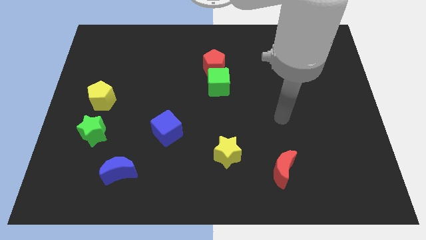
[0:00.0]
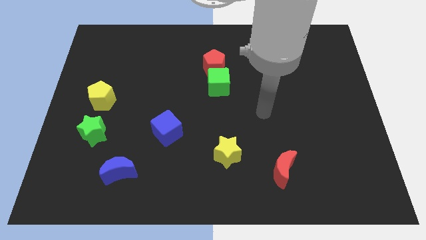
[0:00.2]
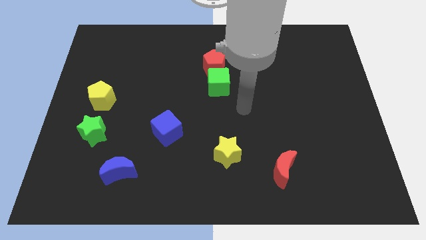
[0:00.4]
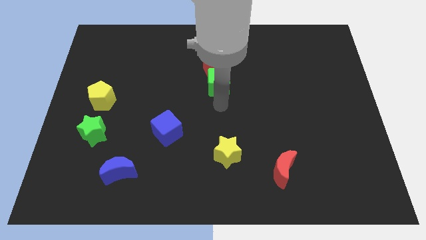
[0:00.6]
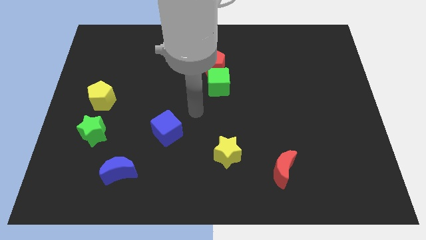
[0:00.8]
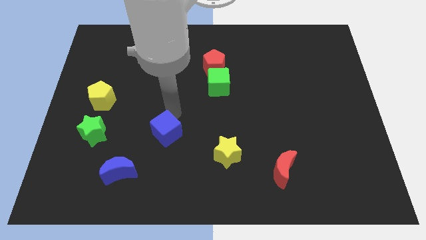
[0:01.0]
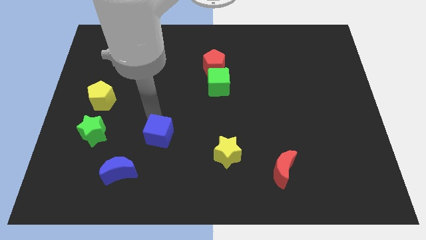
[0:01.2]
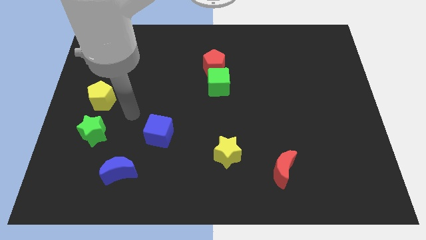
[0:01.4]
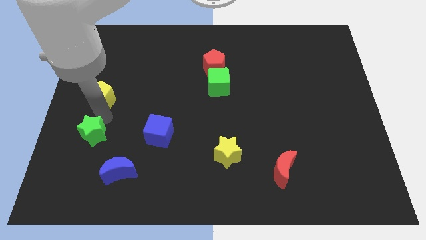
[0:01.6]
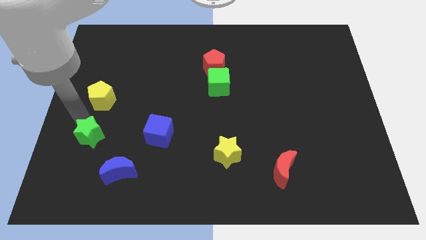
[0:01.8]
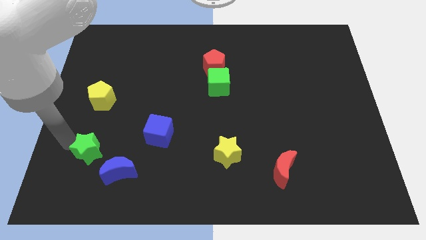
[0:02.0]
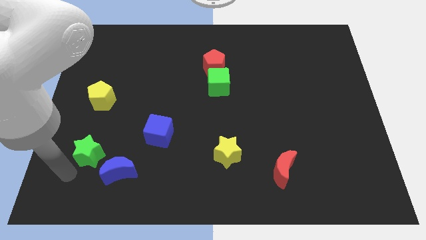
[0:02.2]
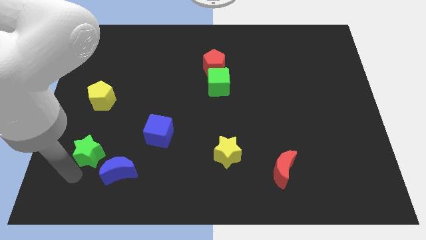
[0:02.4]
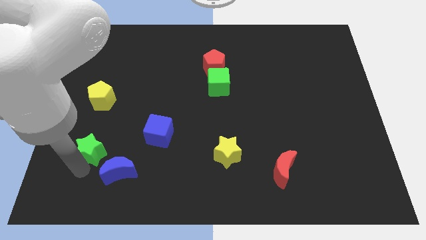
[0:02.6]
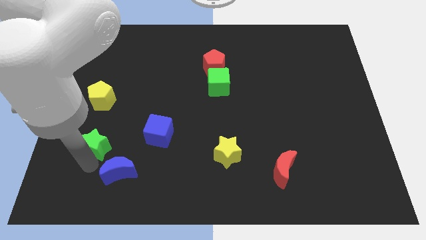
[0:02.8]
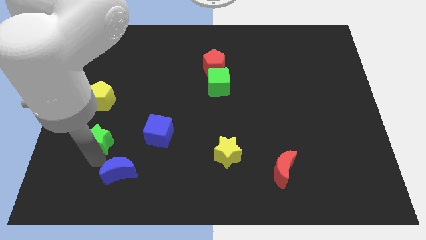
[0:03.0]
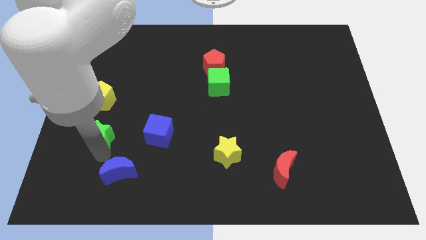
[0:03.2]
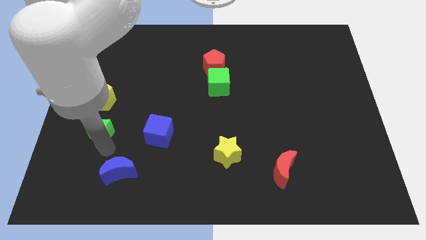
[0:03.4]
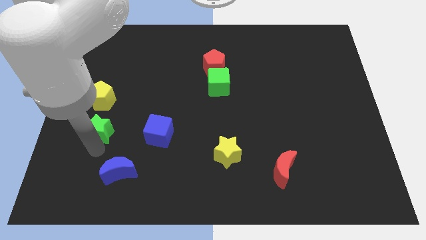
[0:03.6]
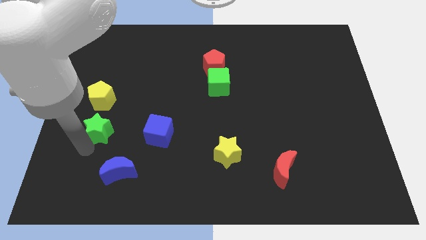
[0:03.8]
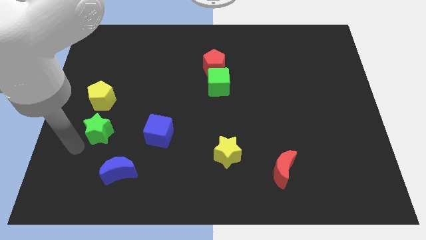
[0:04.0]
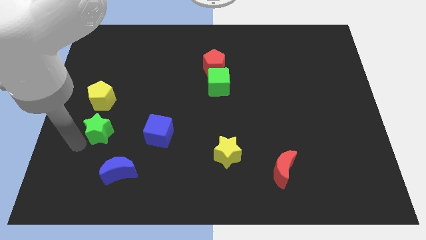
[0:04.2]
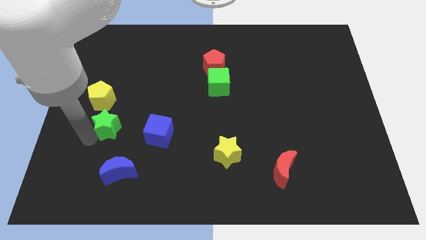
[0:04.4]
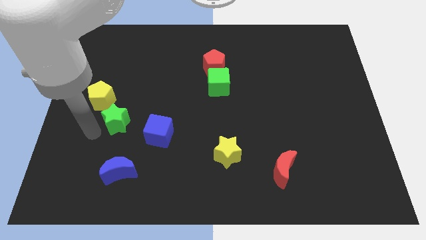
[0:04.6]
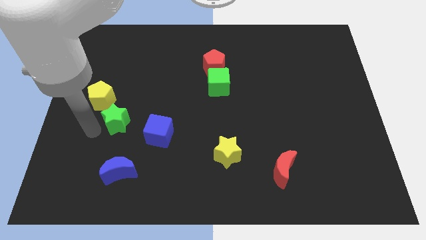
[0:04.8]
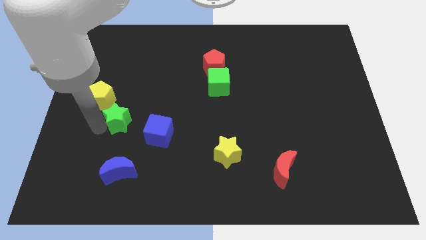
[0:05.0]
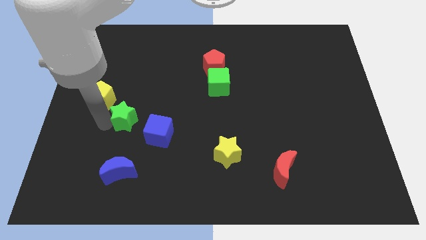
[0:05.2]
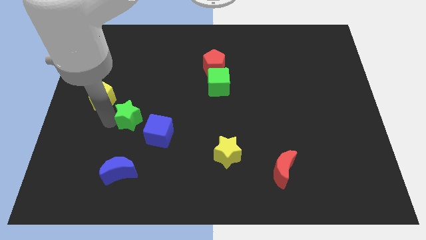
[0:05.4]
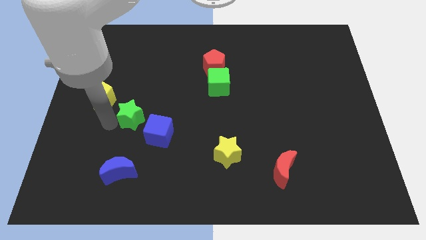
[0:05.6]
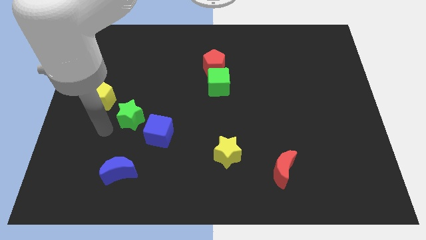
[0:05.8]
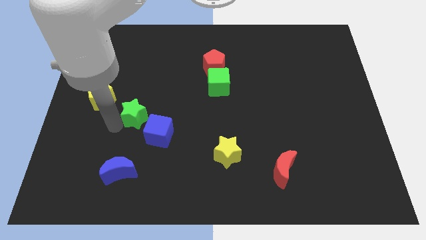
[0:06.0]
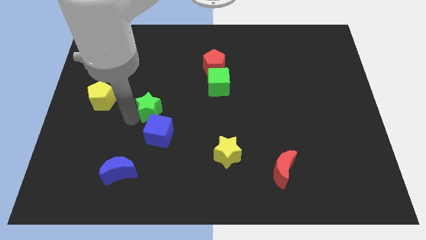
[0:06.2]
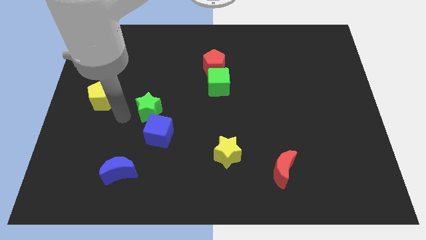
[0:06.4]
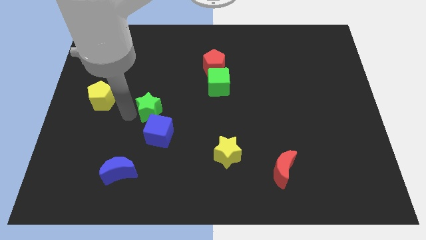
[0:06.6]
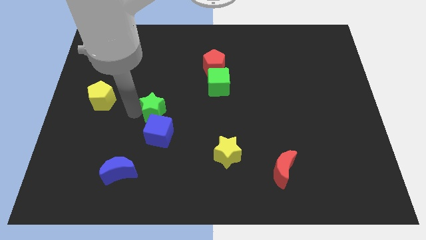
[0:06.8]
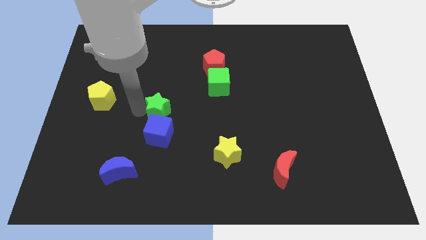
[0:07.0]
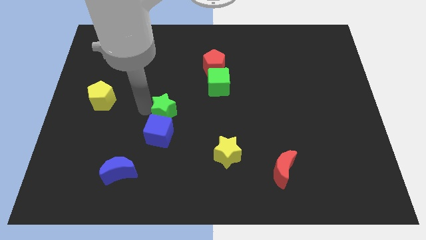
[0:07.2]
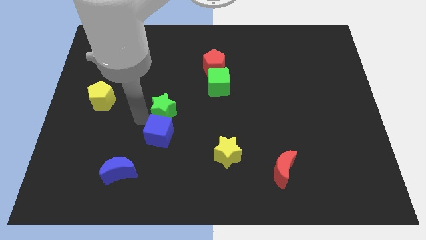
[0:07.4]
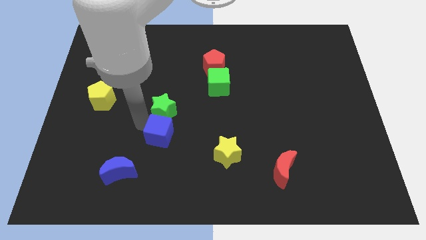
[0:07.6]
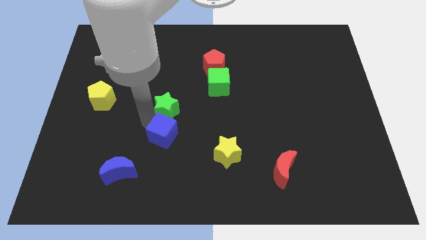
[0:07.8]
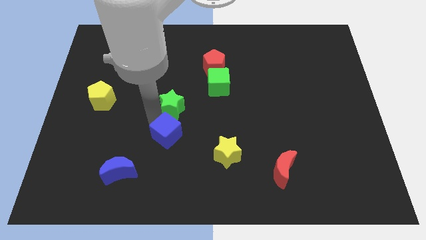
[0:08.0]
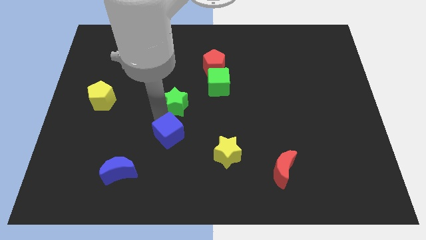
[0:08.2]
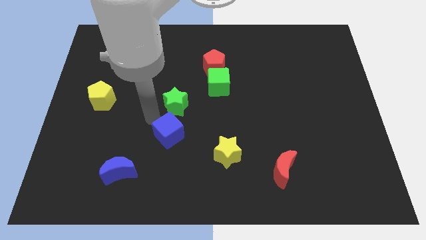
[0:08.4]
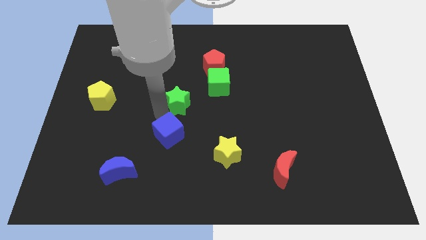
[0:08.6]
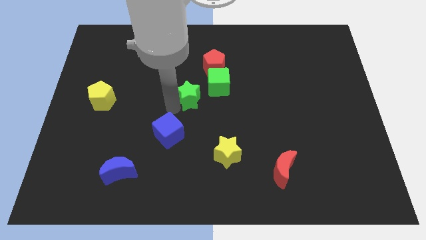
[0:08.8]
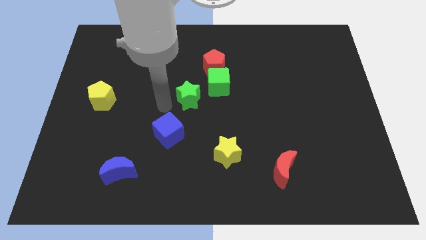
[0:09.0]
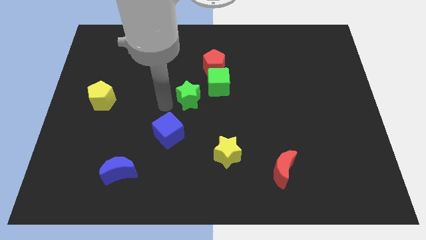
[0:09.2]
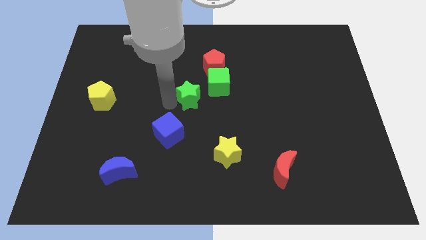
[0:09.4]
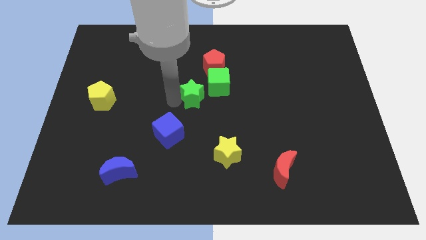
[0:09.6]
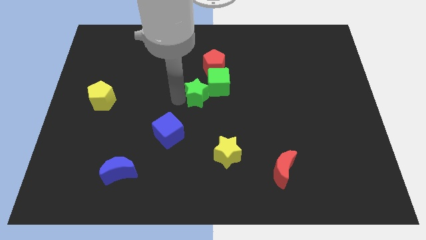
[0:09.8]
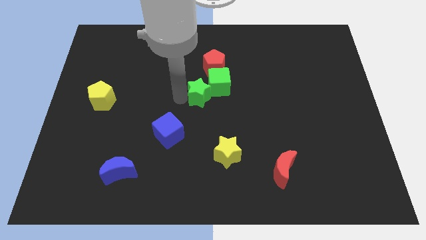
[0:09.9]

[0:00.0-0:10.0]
move the green star towards the green cube

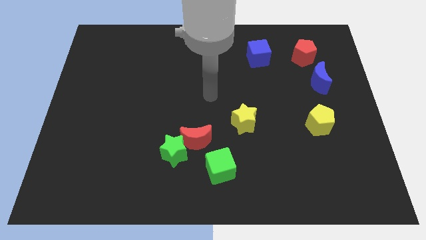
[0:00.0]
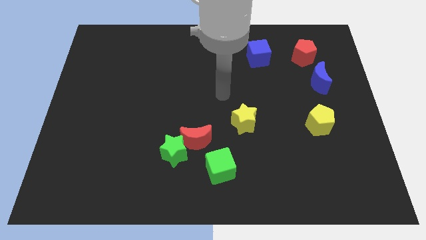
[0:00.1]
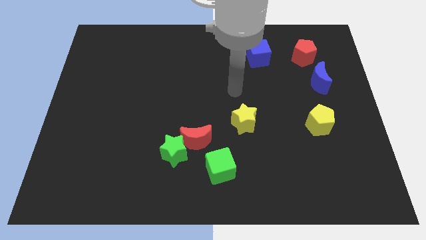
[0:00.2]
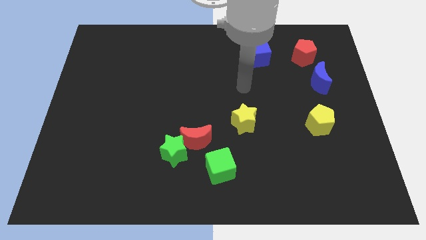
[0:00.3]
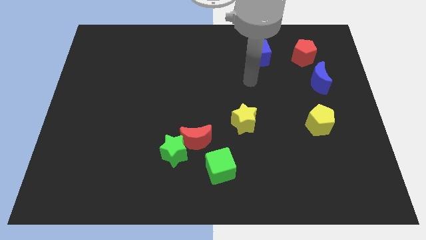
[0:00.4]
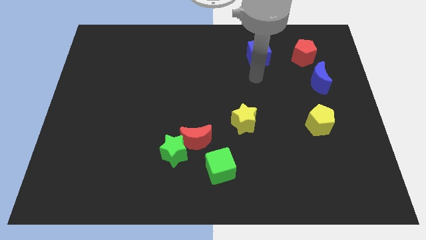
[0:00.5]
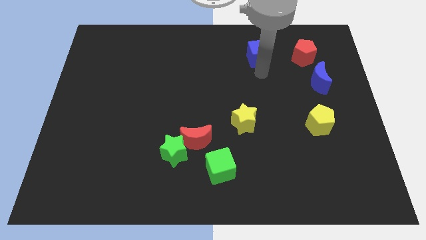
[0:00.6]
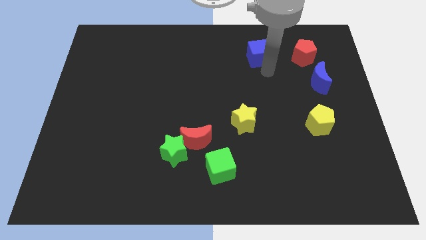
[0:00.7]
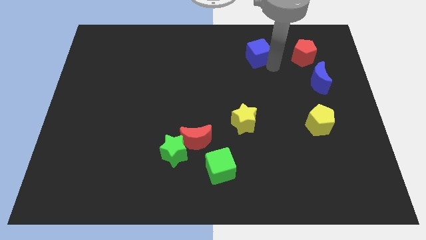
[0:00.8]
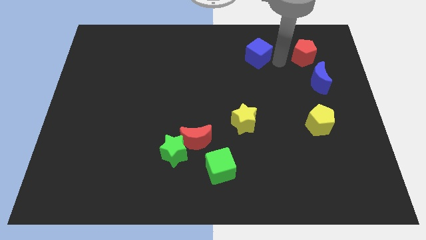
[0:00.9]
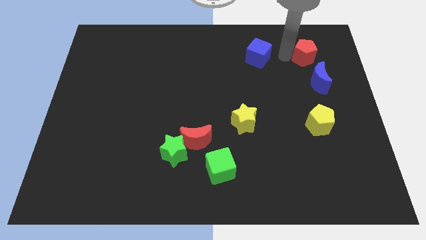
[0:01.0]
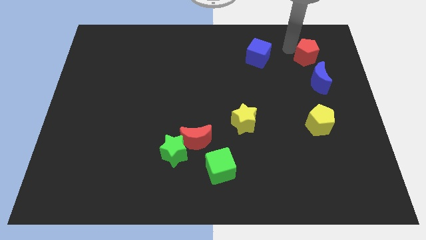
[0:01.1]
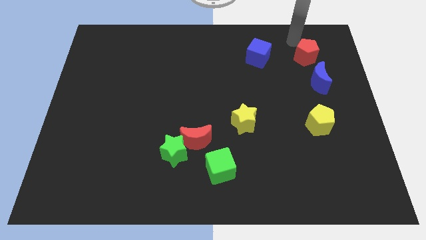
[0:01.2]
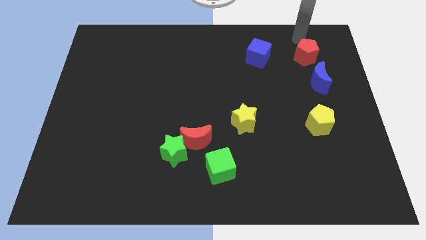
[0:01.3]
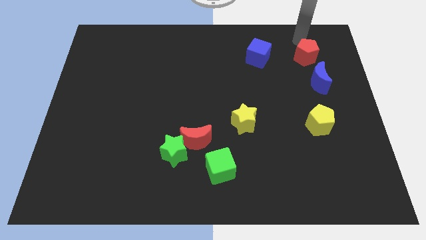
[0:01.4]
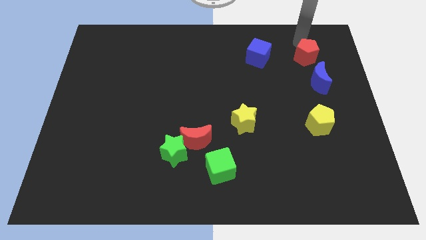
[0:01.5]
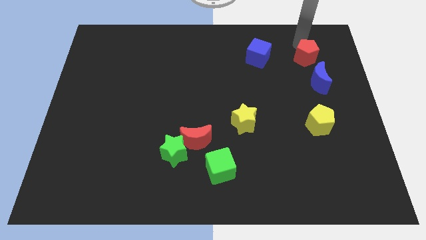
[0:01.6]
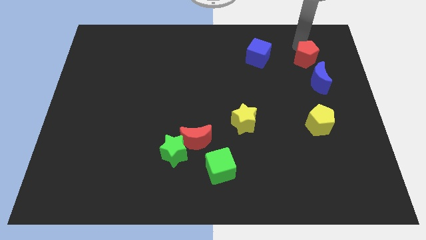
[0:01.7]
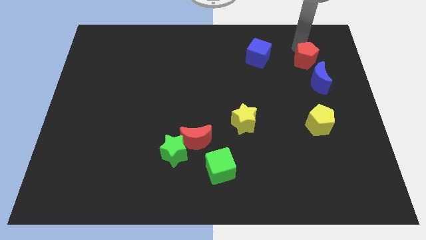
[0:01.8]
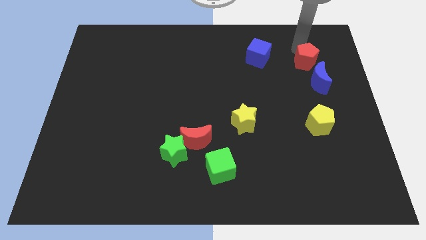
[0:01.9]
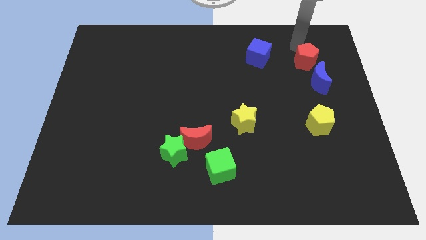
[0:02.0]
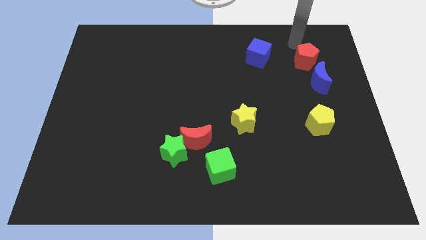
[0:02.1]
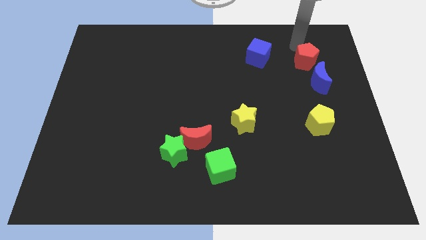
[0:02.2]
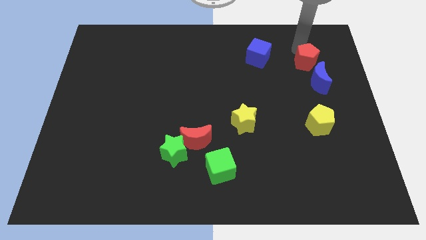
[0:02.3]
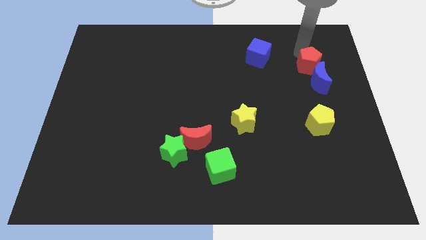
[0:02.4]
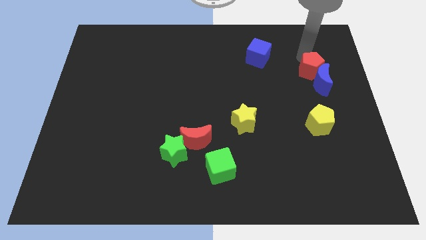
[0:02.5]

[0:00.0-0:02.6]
move the red pentagon to the blue moon

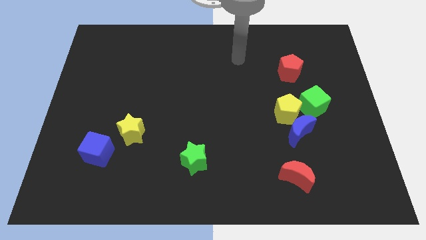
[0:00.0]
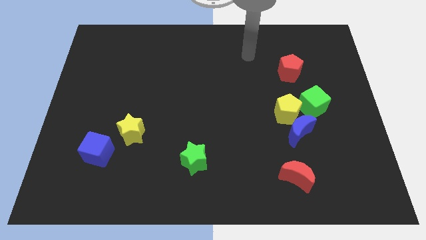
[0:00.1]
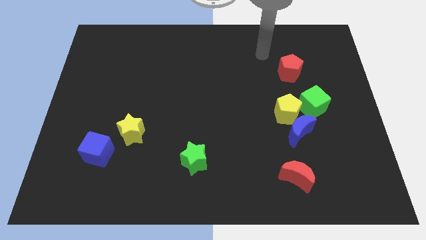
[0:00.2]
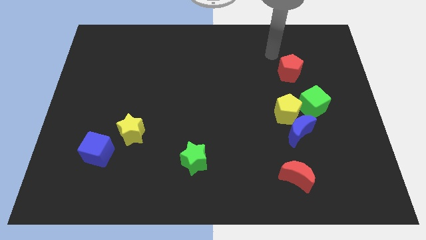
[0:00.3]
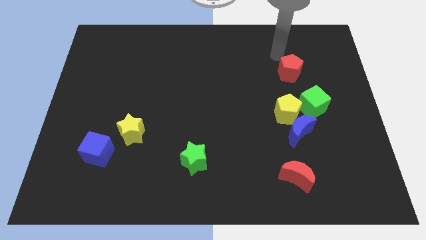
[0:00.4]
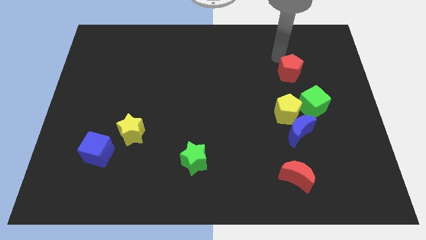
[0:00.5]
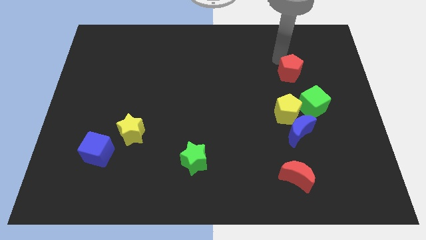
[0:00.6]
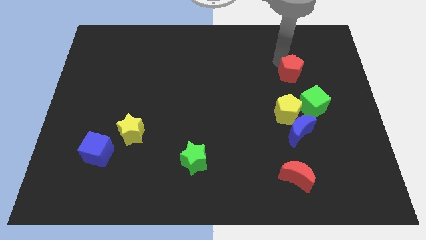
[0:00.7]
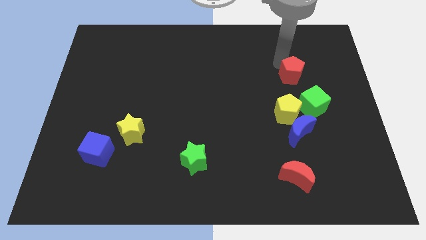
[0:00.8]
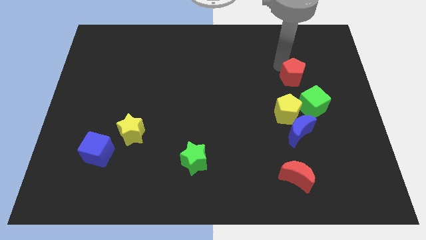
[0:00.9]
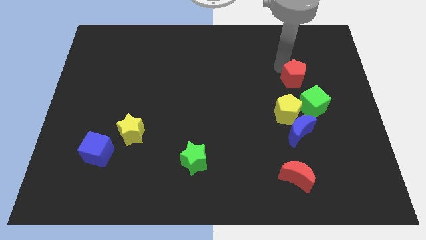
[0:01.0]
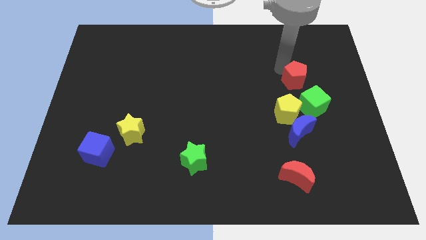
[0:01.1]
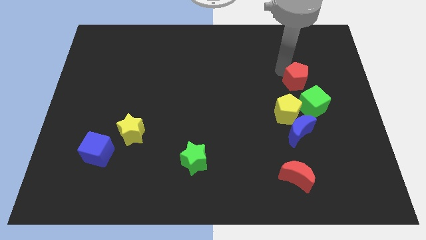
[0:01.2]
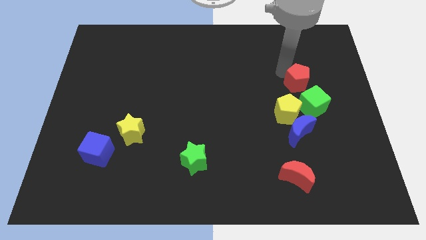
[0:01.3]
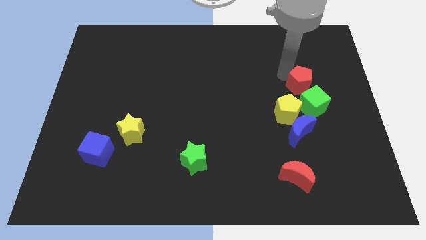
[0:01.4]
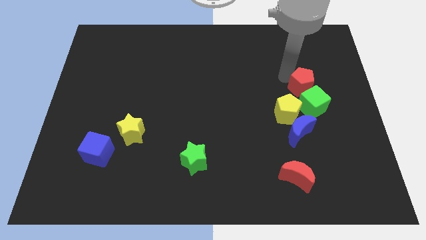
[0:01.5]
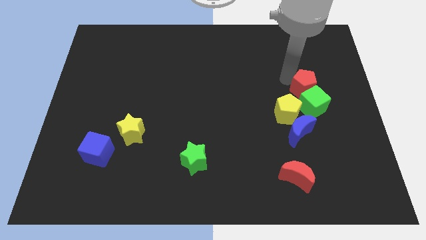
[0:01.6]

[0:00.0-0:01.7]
push the red pentagon towards the green cube
